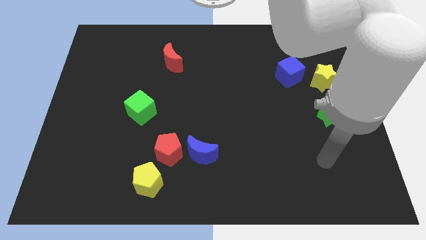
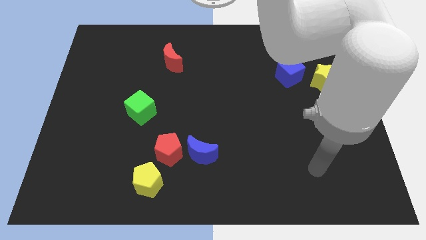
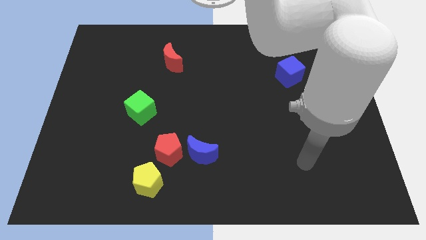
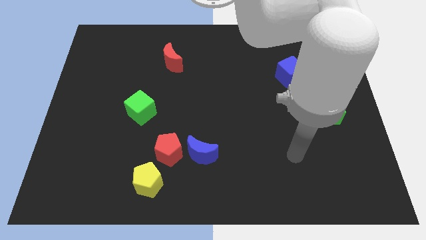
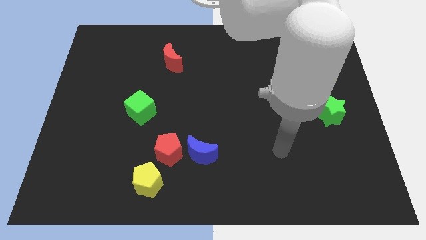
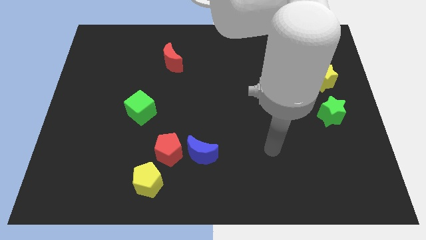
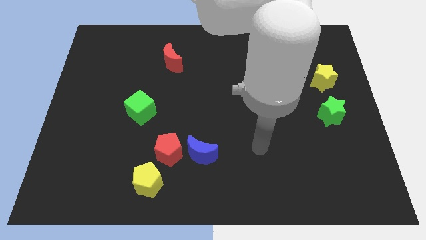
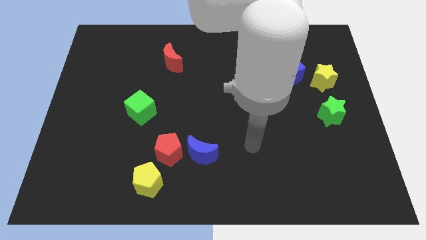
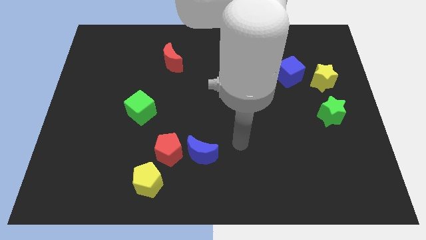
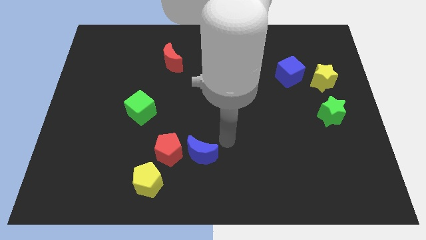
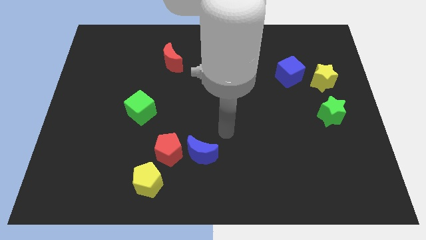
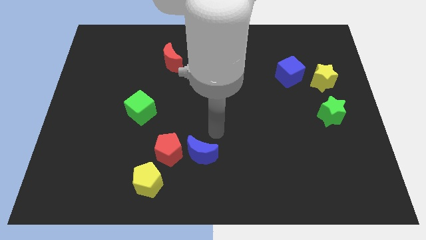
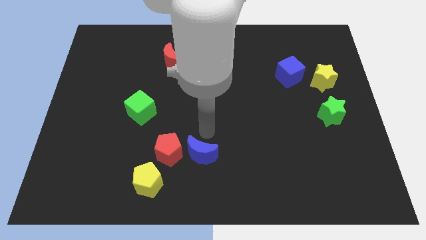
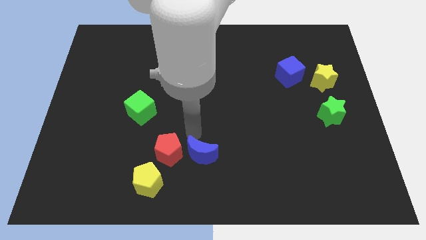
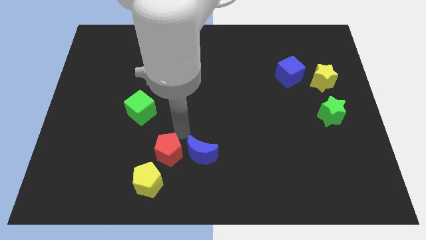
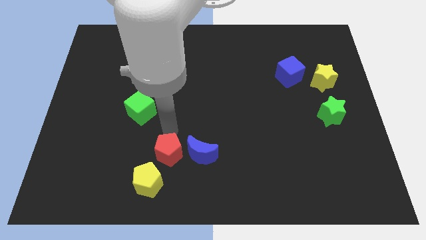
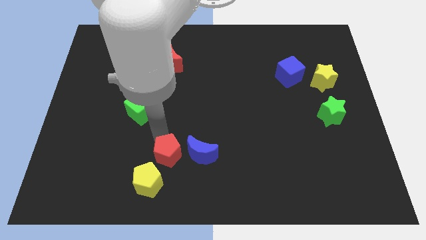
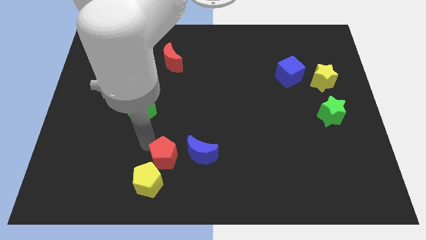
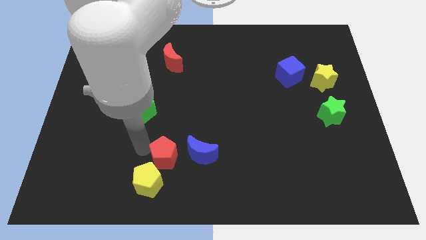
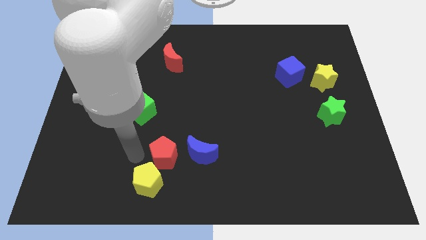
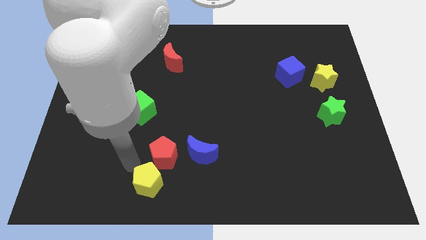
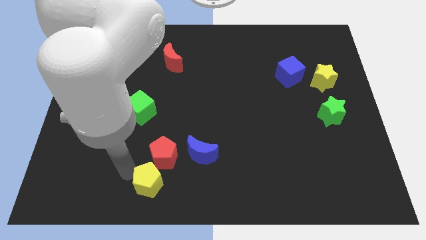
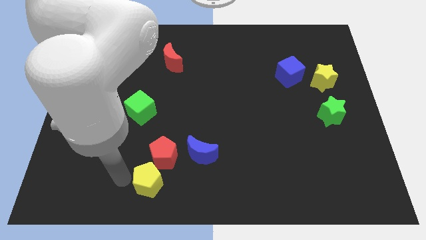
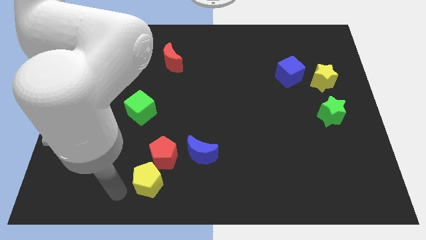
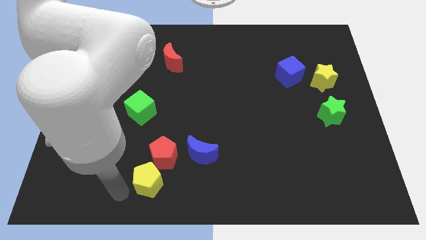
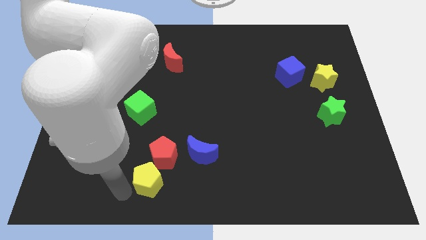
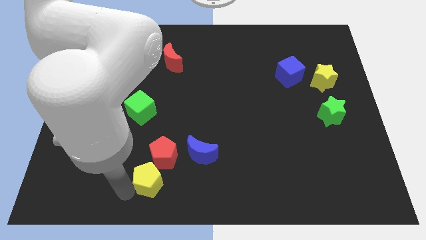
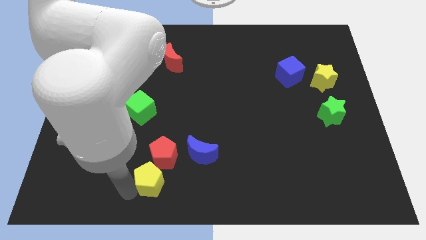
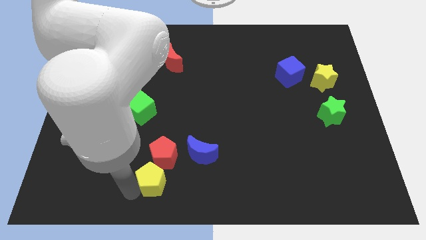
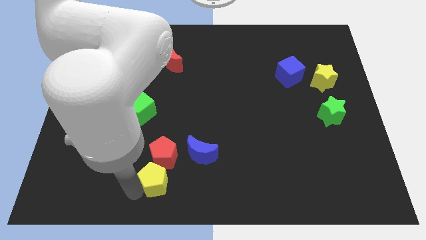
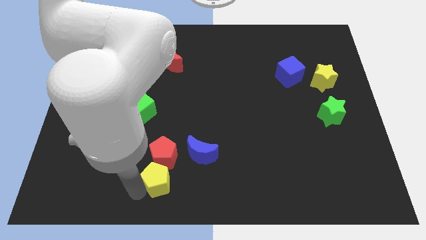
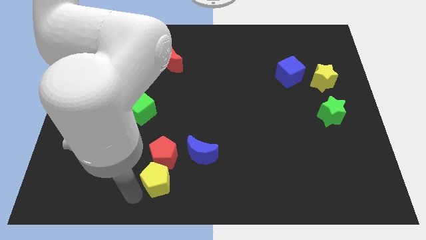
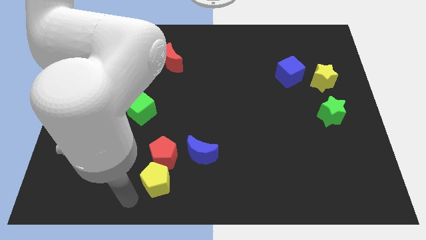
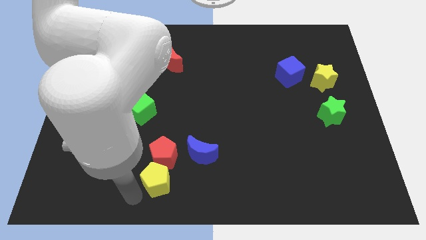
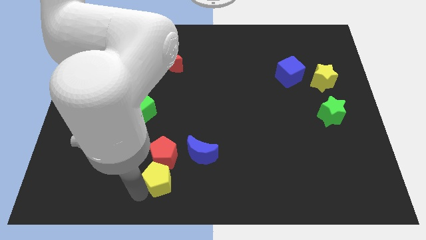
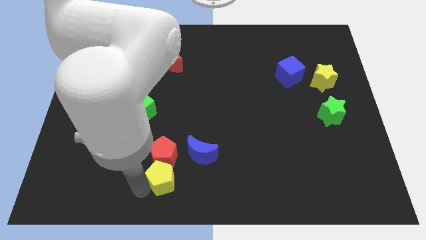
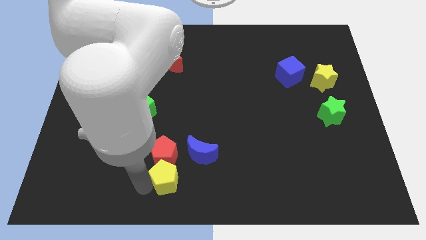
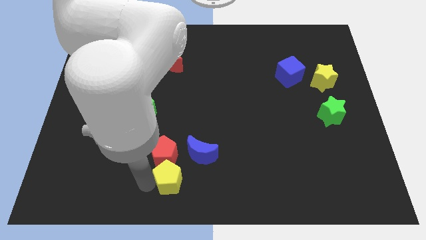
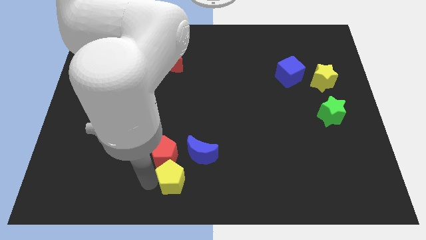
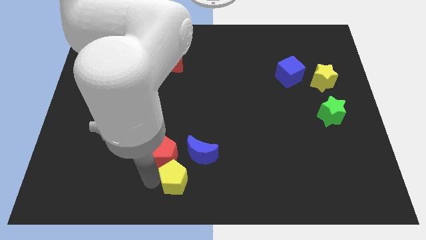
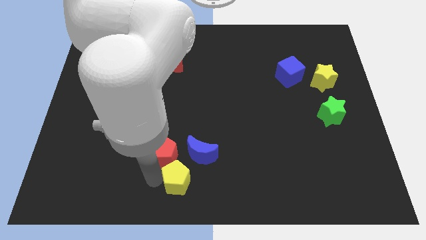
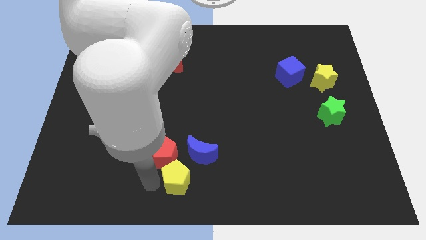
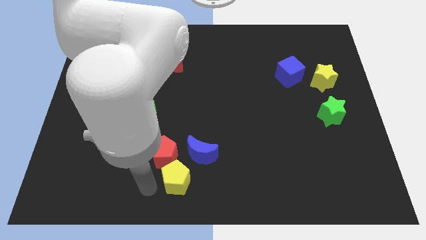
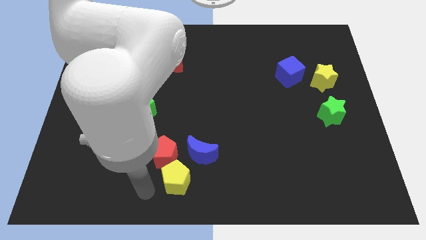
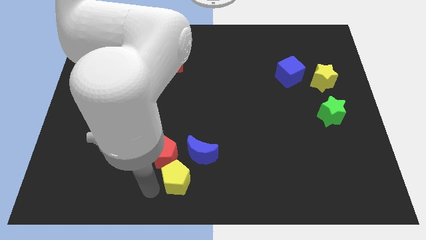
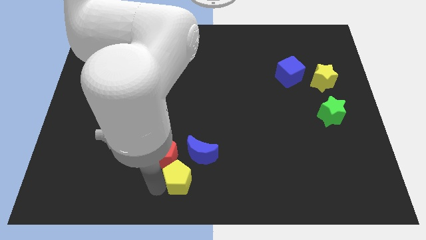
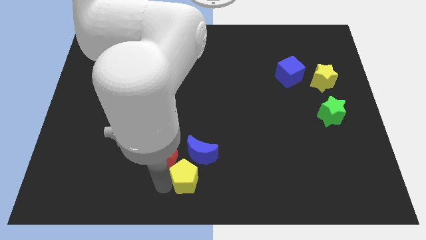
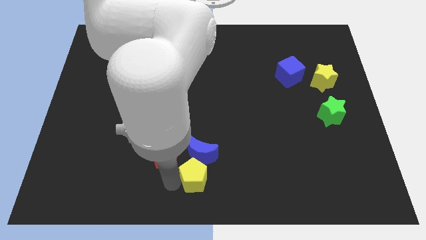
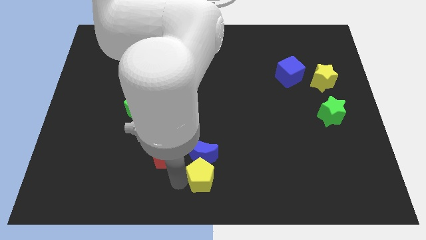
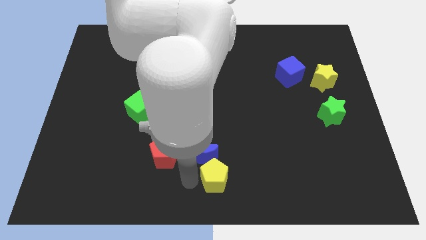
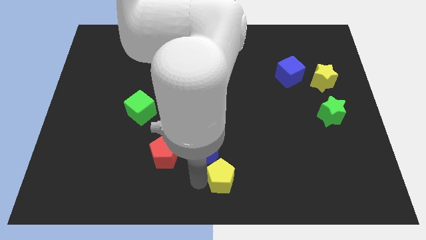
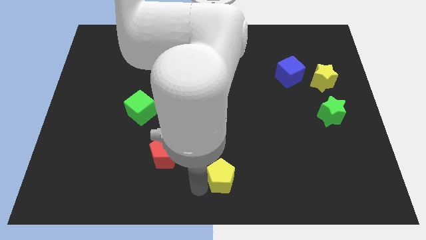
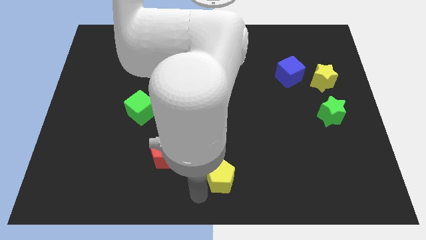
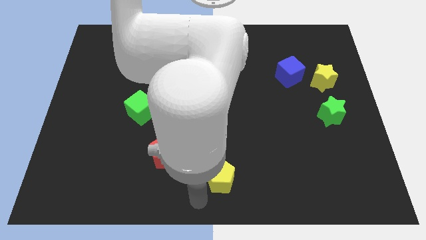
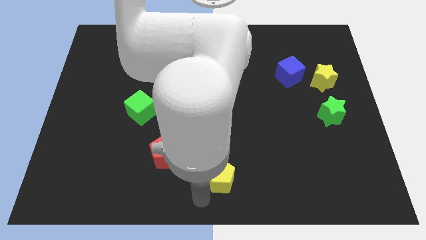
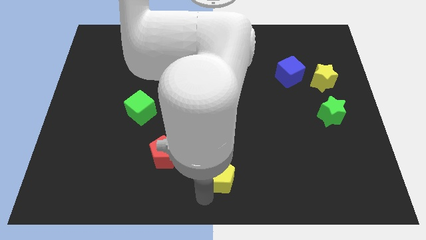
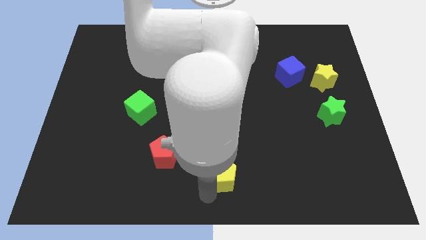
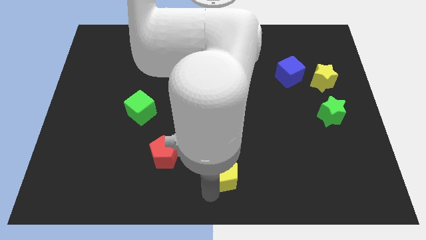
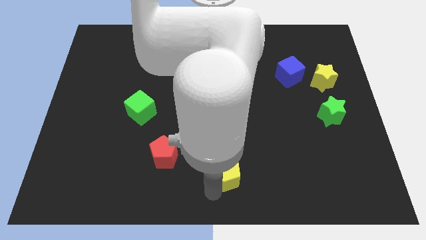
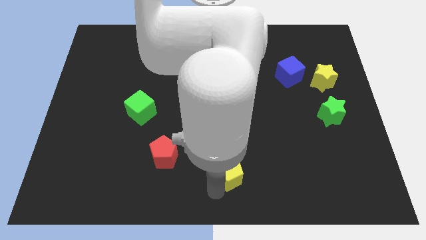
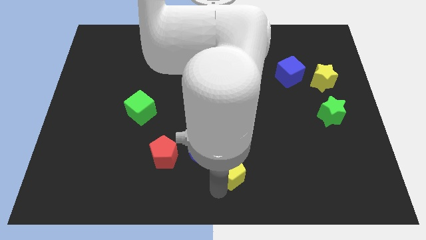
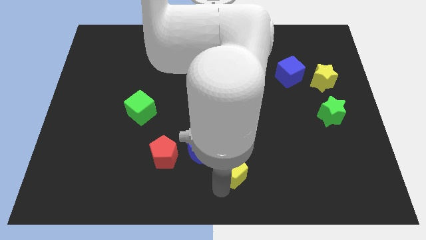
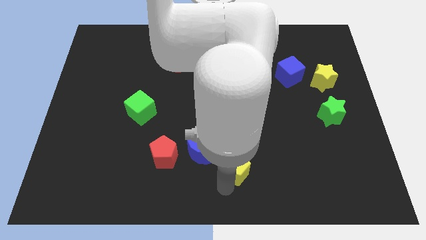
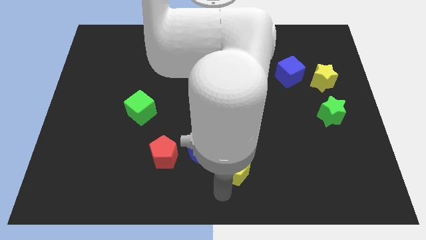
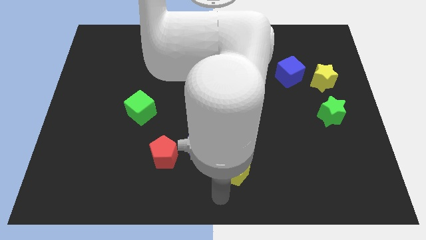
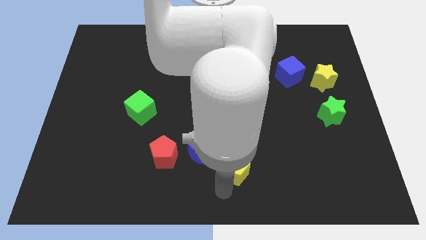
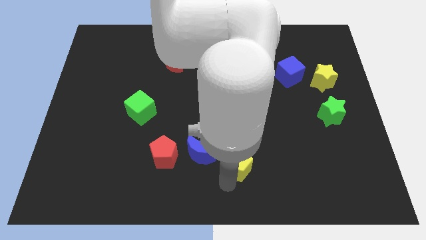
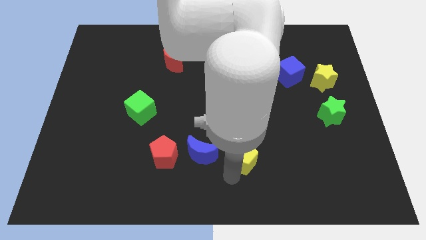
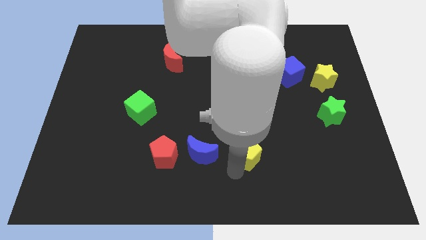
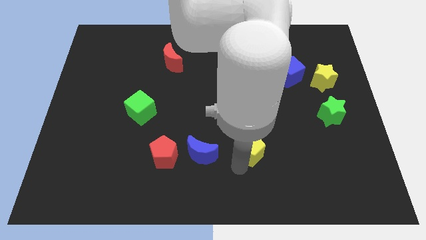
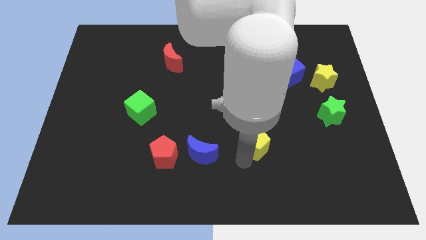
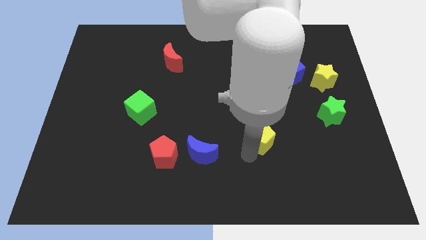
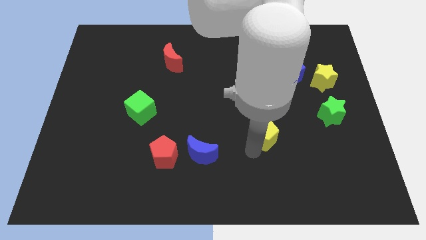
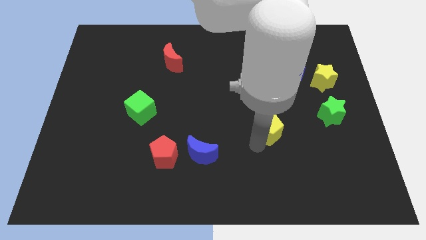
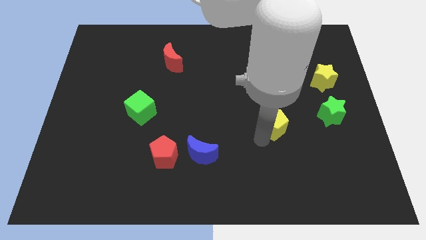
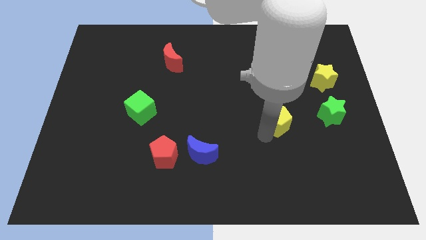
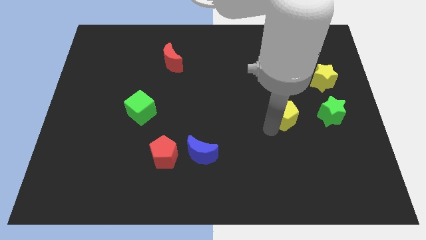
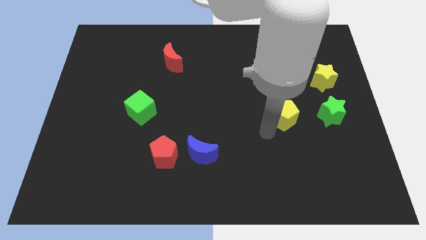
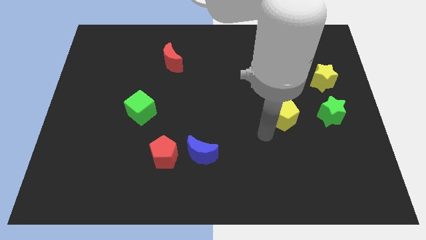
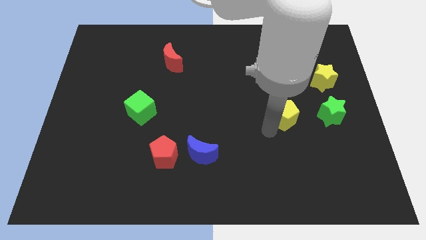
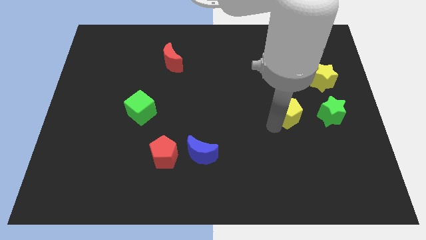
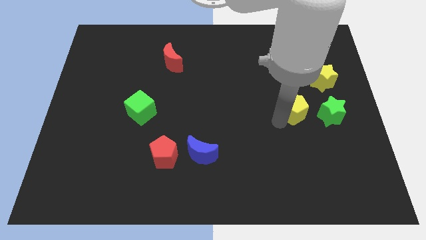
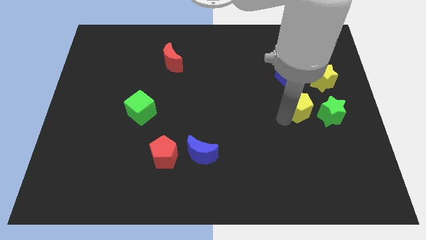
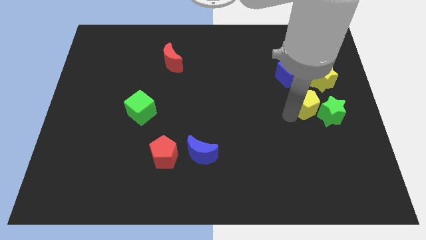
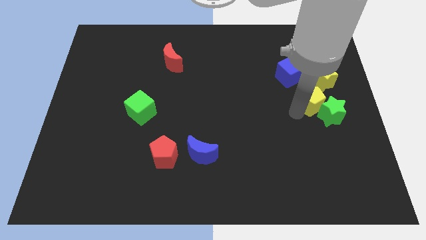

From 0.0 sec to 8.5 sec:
move the yellow pentagon diagonally down and to the right of the blue cube
